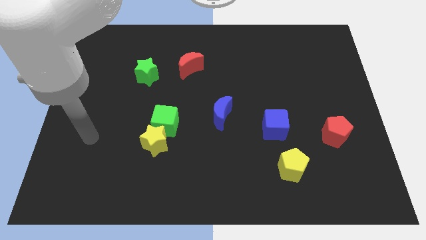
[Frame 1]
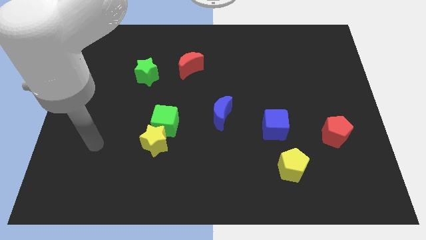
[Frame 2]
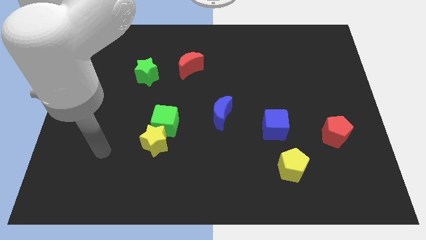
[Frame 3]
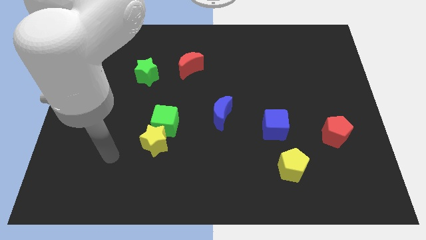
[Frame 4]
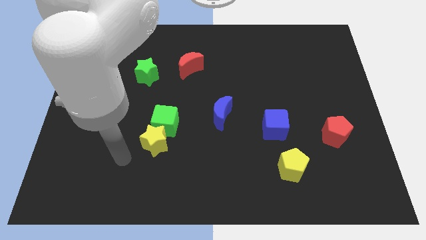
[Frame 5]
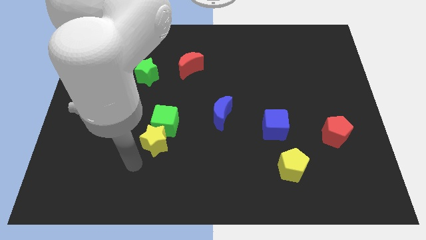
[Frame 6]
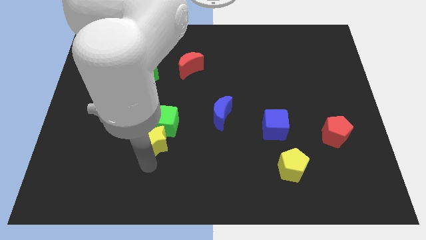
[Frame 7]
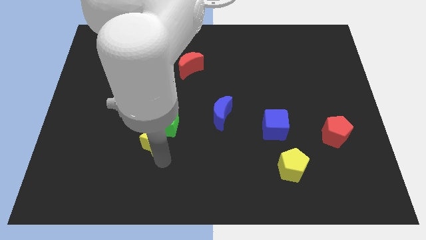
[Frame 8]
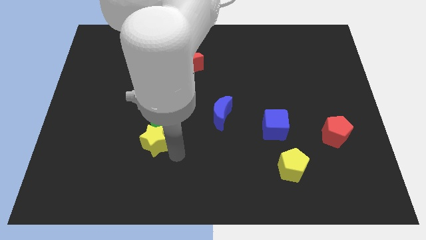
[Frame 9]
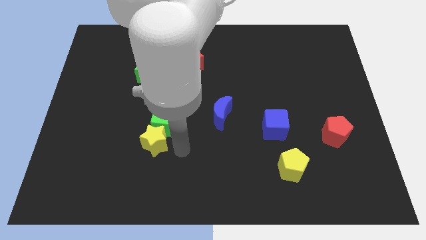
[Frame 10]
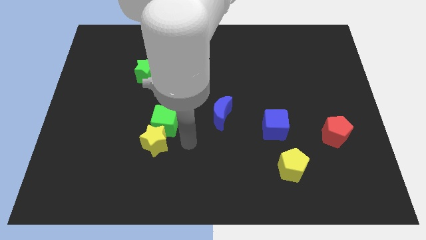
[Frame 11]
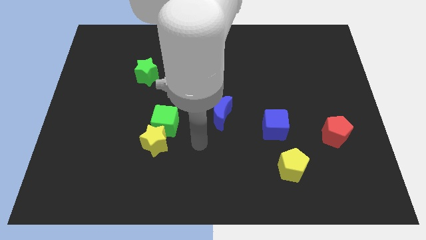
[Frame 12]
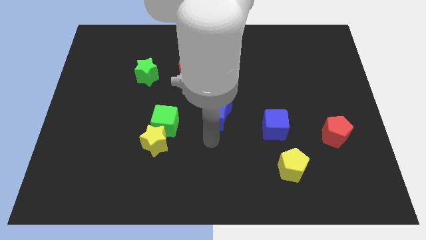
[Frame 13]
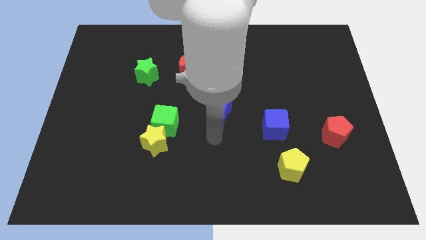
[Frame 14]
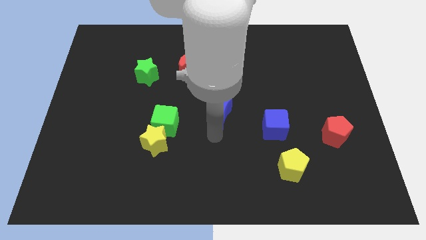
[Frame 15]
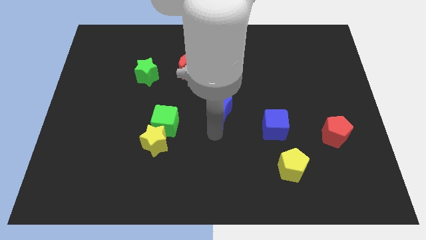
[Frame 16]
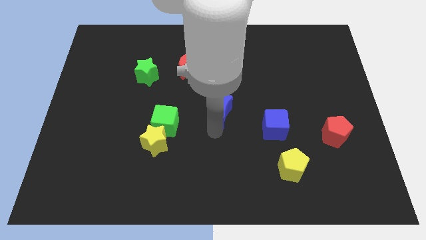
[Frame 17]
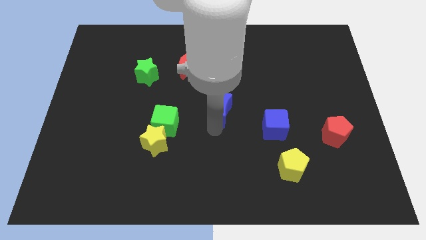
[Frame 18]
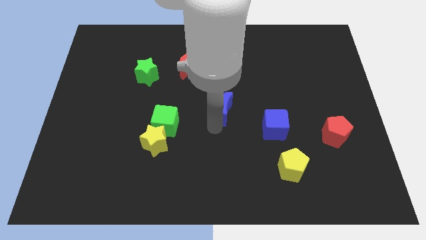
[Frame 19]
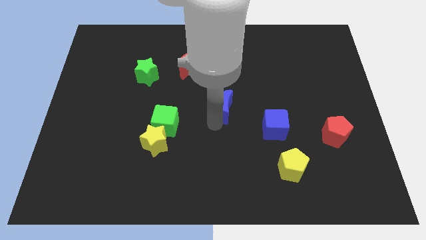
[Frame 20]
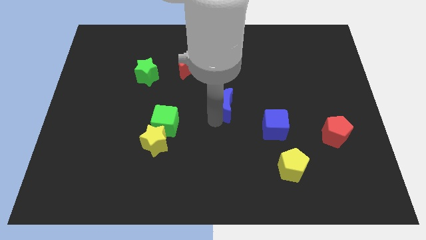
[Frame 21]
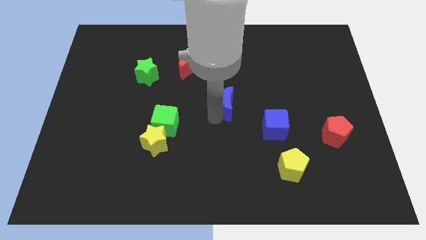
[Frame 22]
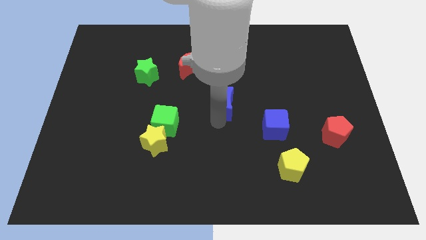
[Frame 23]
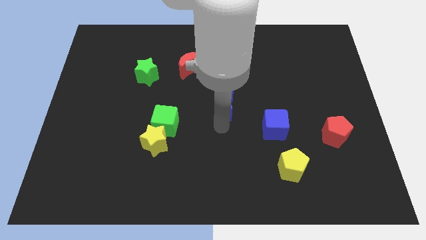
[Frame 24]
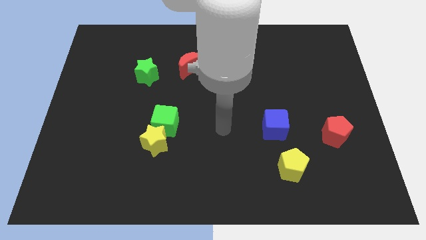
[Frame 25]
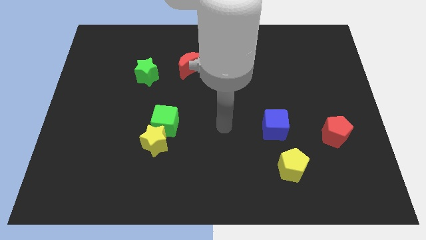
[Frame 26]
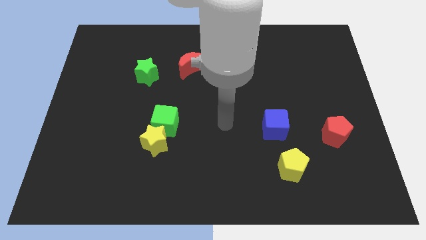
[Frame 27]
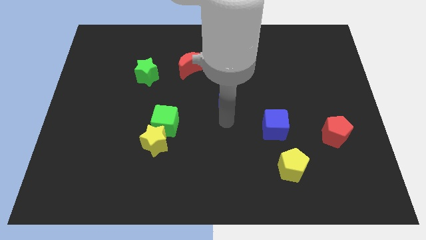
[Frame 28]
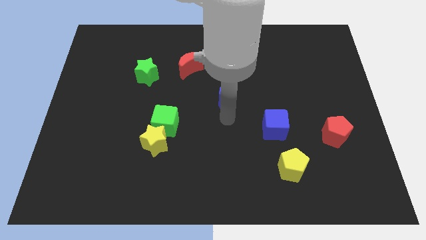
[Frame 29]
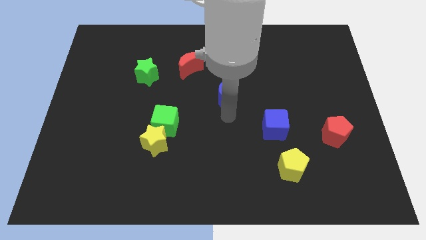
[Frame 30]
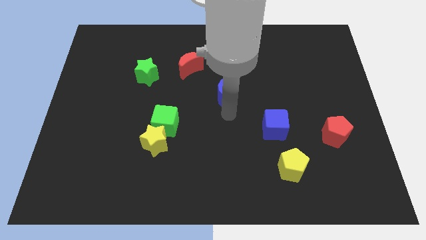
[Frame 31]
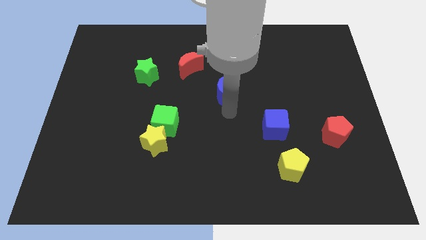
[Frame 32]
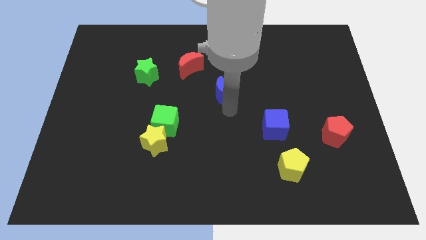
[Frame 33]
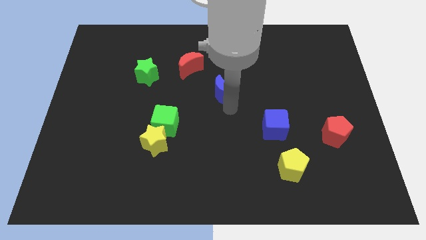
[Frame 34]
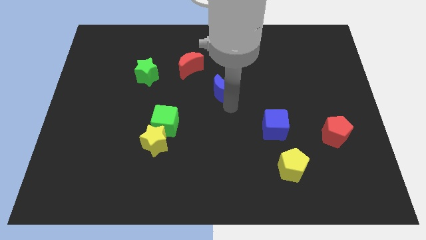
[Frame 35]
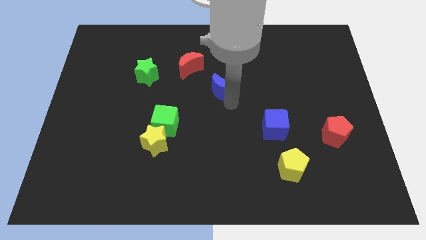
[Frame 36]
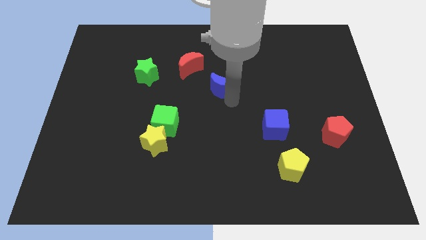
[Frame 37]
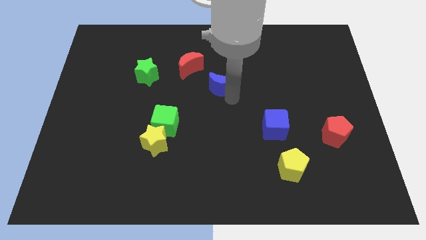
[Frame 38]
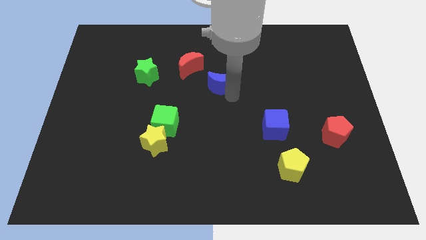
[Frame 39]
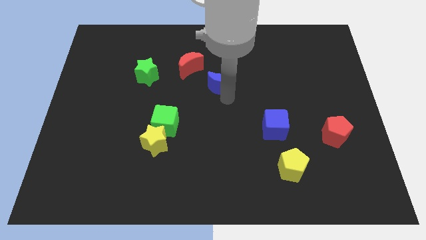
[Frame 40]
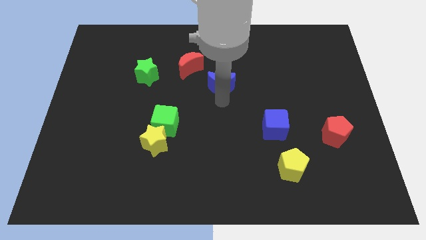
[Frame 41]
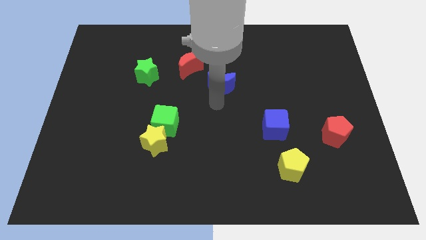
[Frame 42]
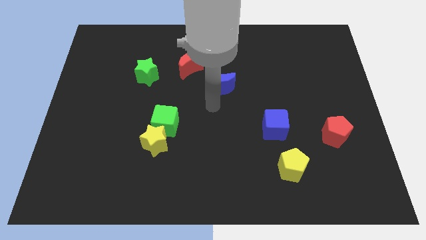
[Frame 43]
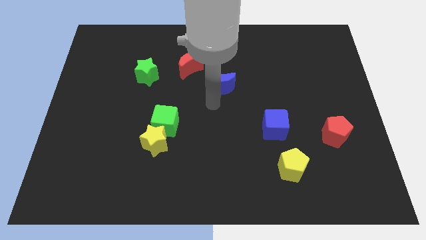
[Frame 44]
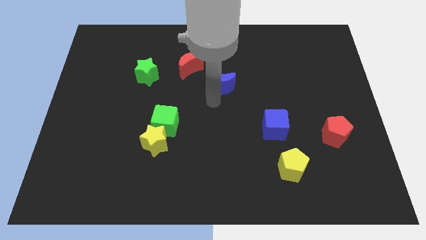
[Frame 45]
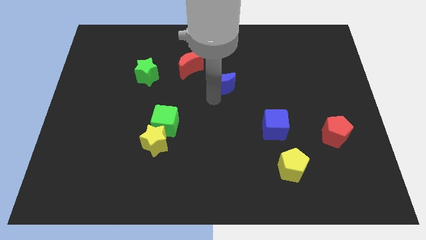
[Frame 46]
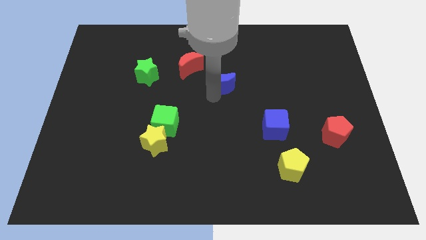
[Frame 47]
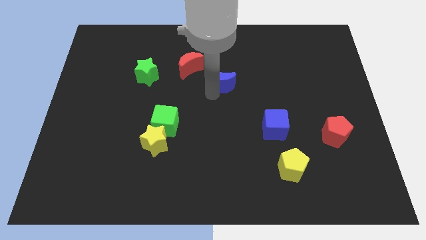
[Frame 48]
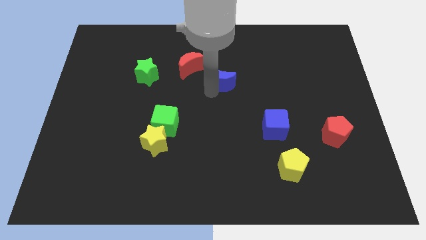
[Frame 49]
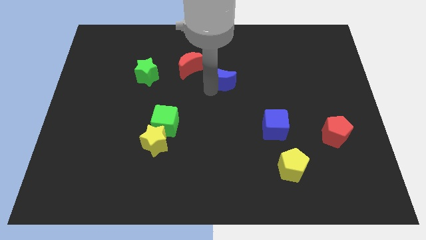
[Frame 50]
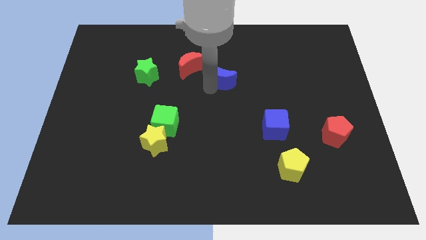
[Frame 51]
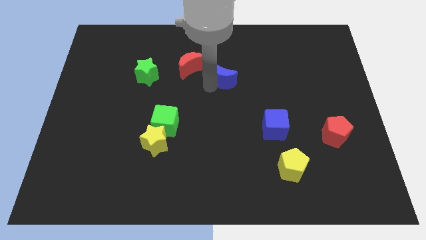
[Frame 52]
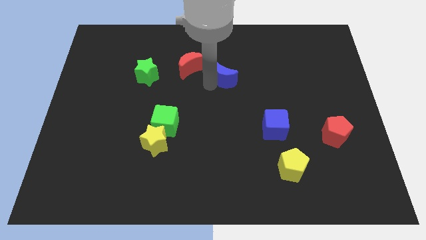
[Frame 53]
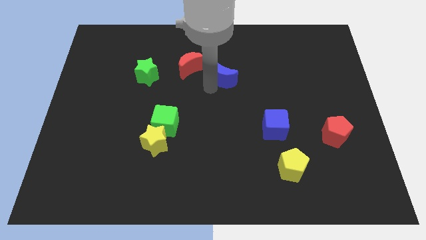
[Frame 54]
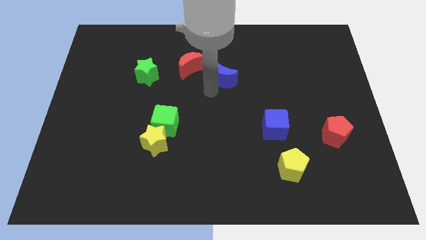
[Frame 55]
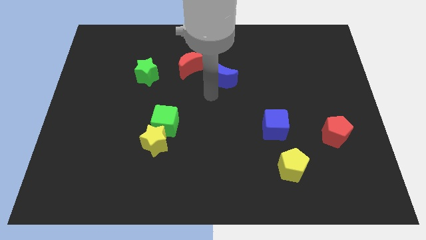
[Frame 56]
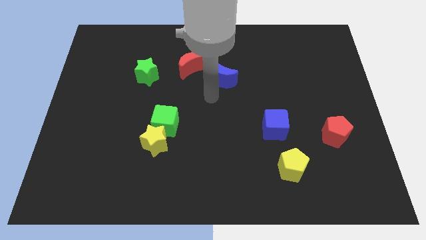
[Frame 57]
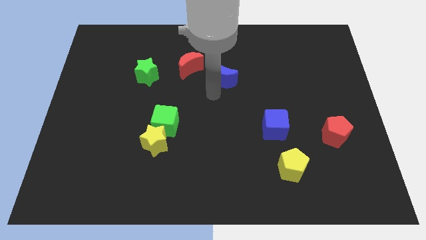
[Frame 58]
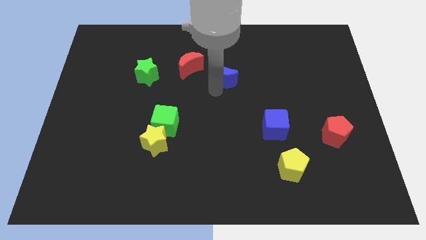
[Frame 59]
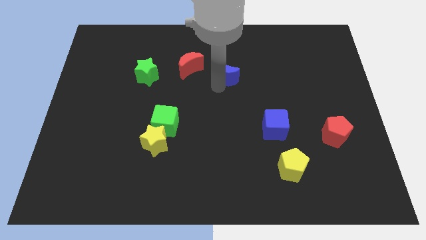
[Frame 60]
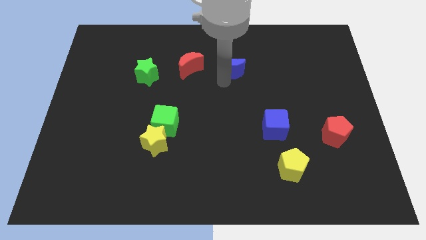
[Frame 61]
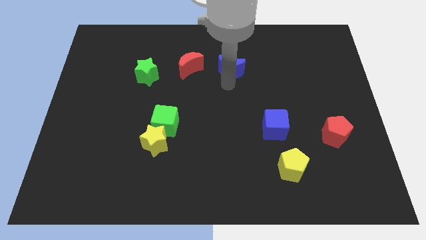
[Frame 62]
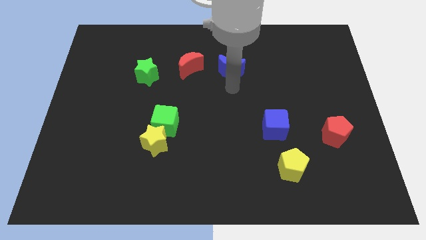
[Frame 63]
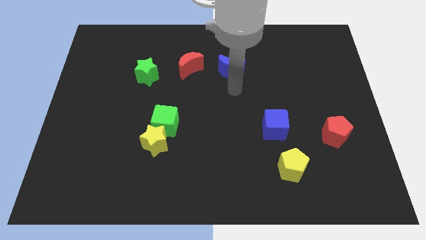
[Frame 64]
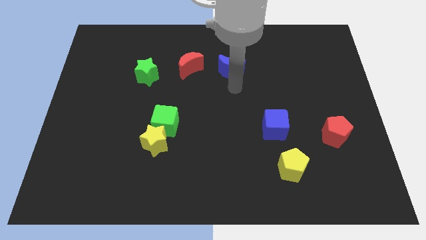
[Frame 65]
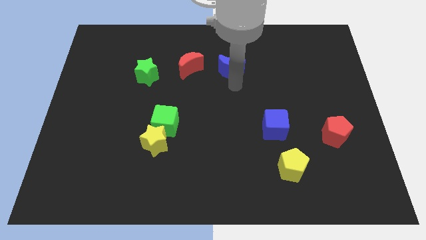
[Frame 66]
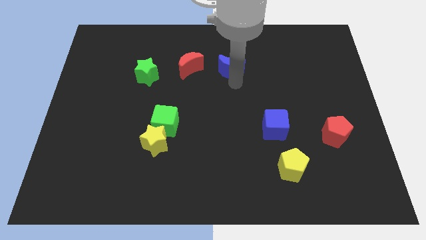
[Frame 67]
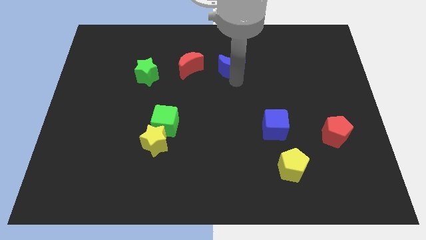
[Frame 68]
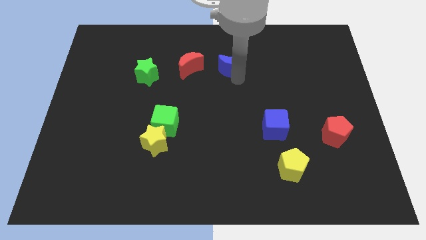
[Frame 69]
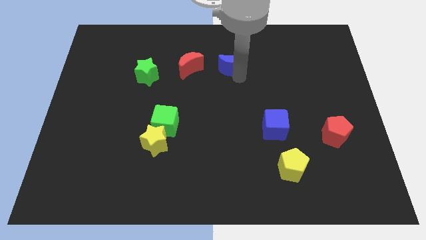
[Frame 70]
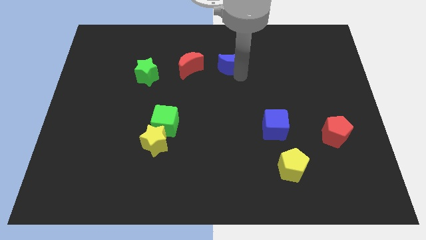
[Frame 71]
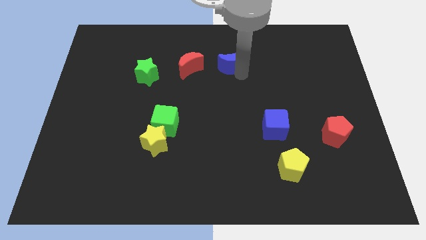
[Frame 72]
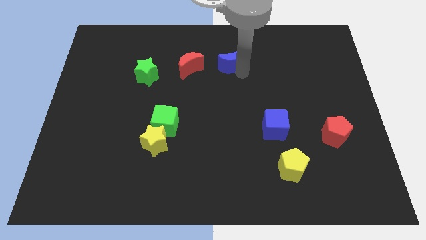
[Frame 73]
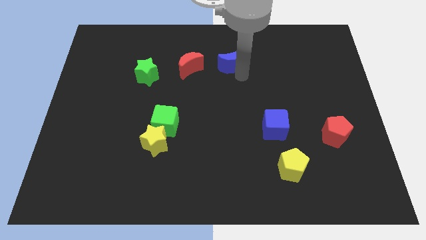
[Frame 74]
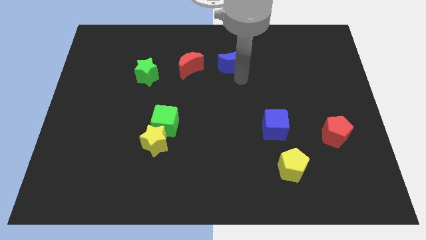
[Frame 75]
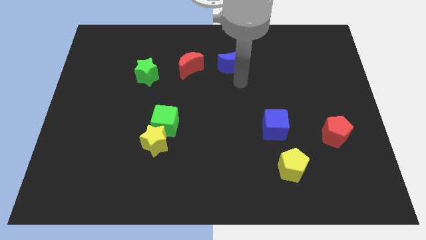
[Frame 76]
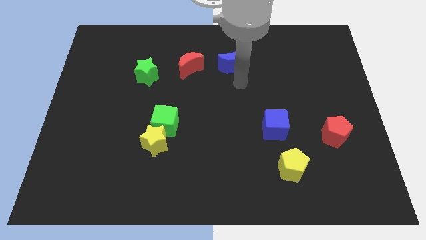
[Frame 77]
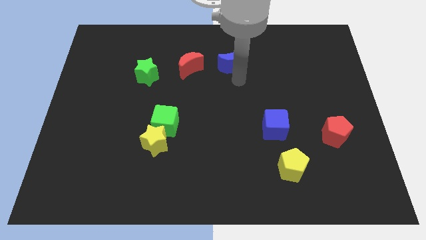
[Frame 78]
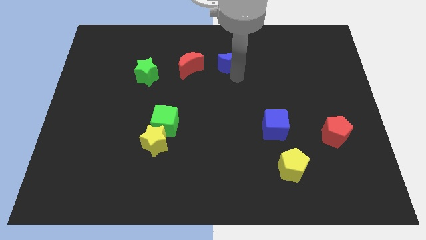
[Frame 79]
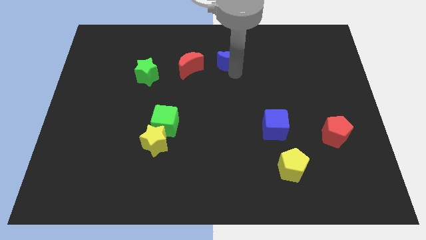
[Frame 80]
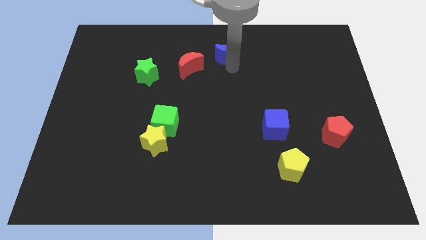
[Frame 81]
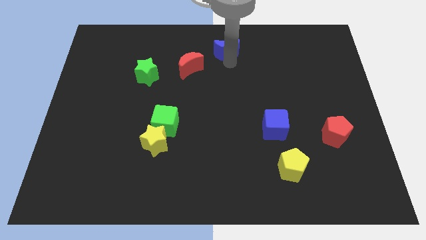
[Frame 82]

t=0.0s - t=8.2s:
push the blue moon to the top side
